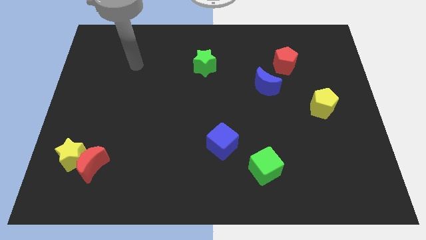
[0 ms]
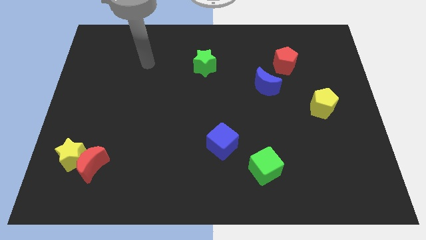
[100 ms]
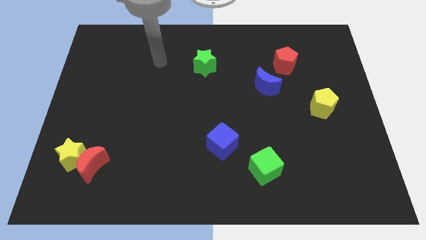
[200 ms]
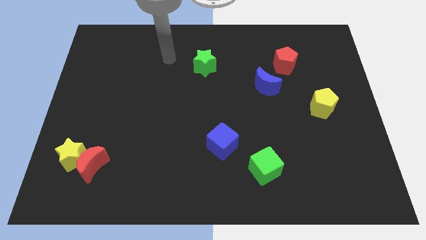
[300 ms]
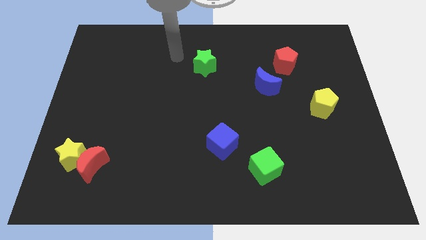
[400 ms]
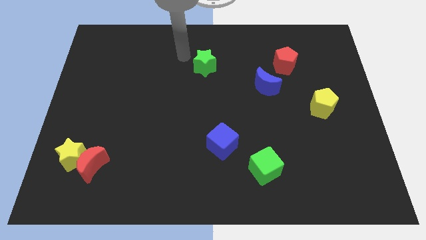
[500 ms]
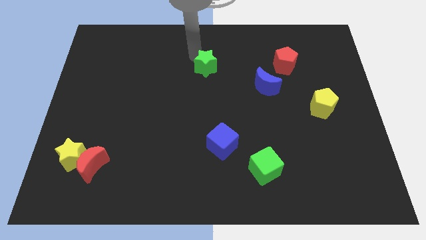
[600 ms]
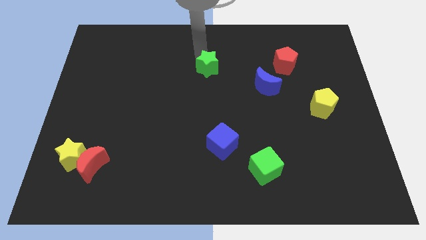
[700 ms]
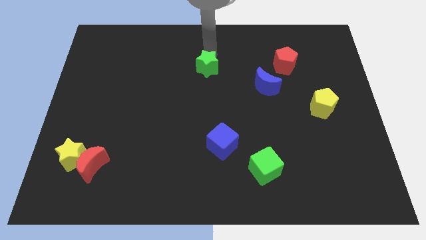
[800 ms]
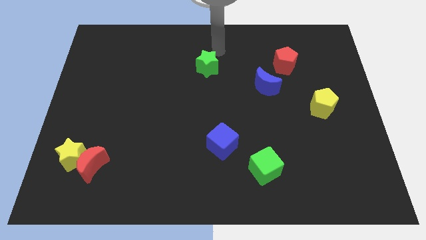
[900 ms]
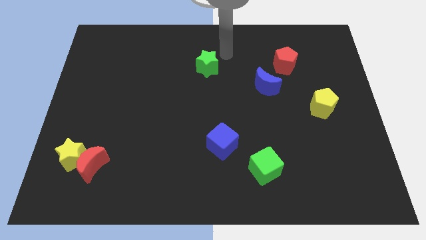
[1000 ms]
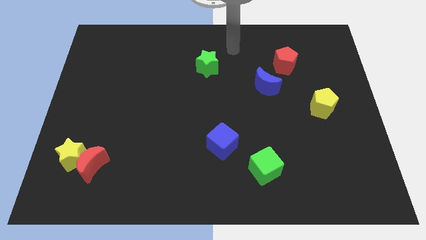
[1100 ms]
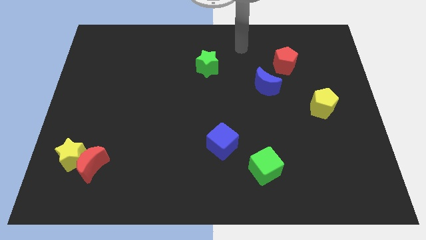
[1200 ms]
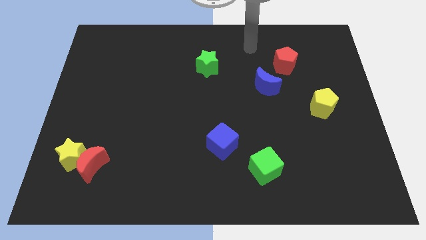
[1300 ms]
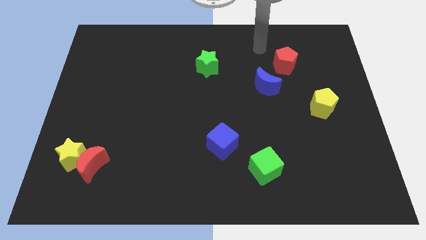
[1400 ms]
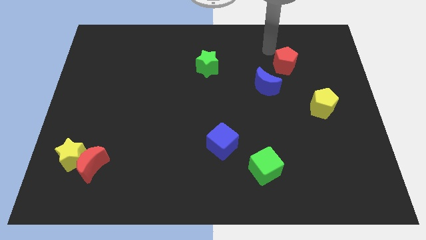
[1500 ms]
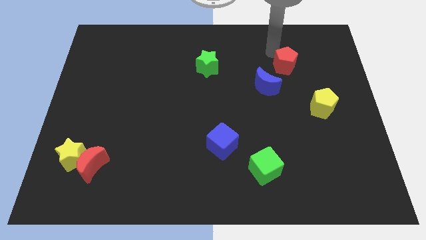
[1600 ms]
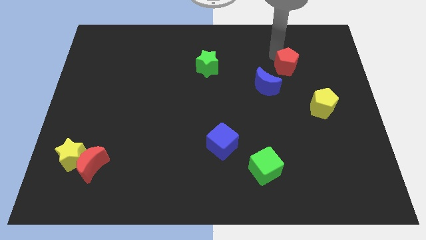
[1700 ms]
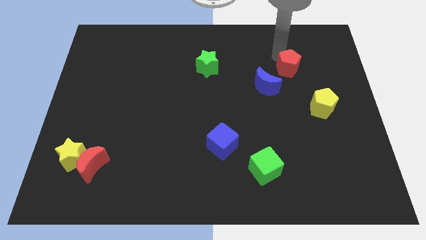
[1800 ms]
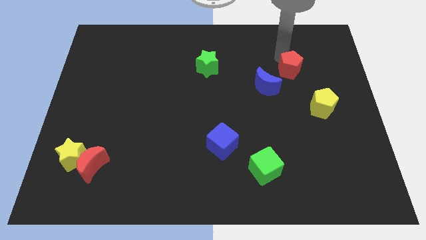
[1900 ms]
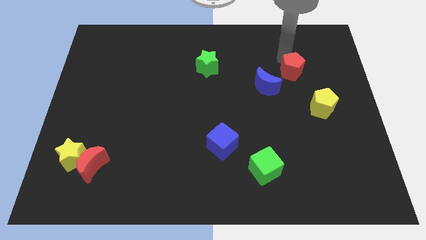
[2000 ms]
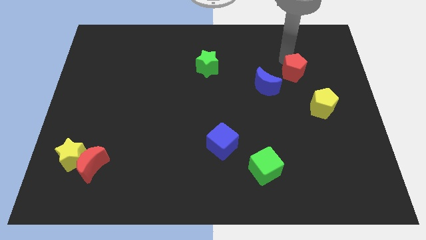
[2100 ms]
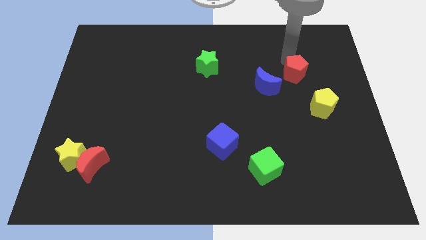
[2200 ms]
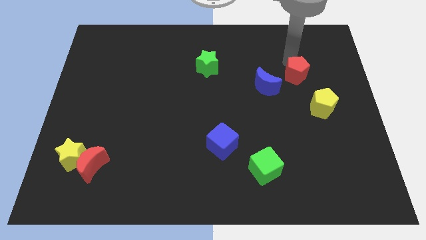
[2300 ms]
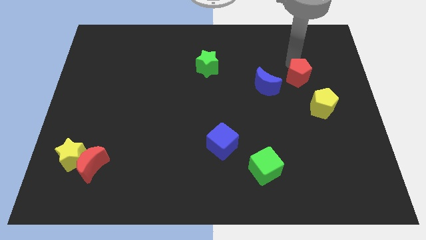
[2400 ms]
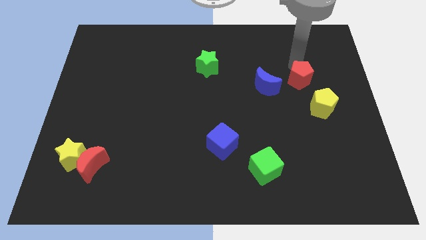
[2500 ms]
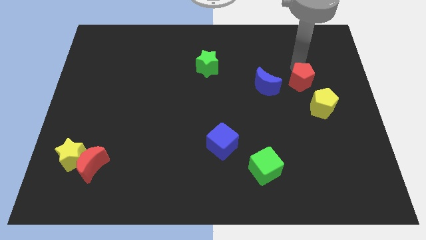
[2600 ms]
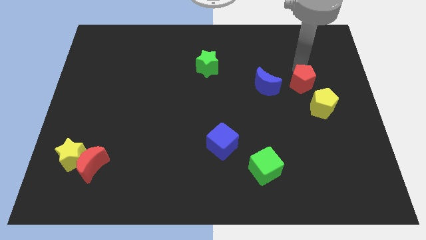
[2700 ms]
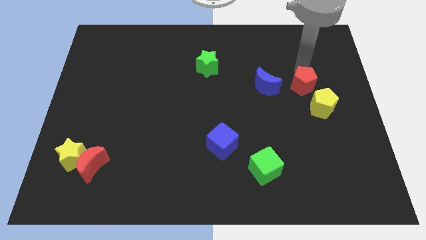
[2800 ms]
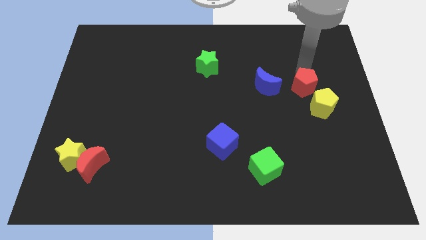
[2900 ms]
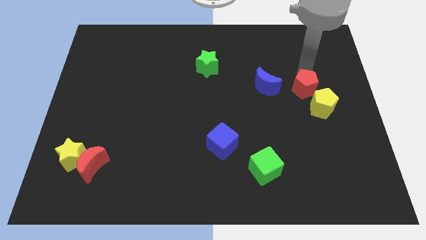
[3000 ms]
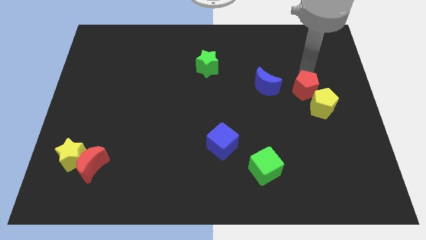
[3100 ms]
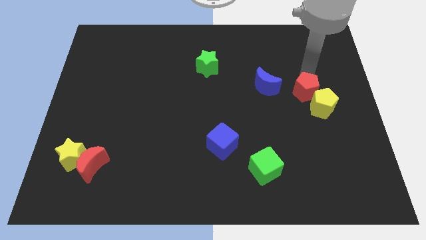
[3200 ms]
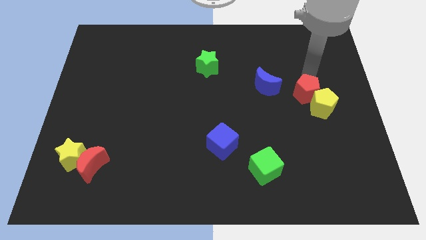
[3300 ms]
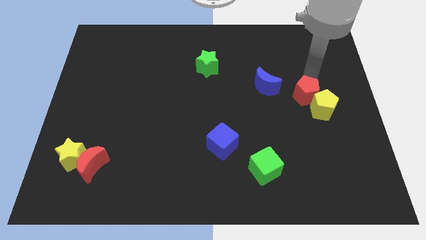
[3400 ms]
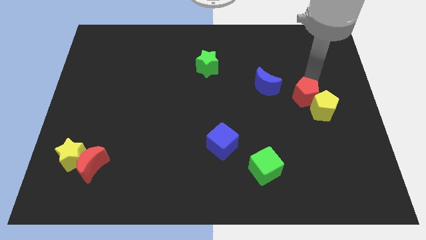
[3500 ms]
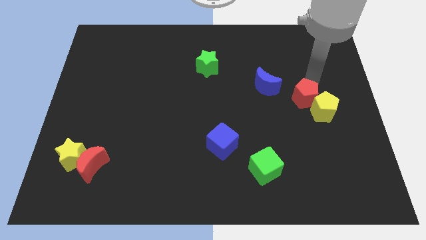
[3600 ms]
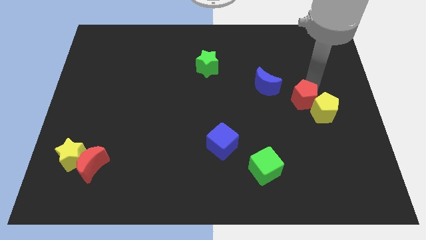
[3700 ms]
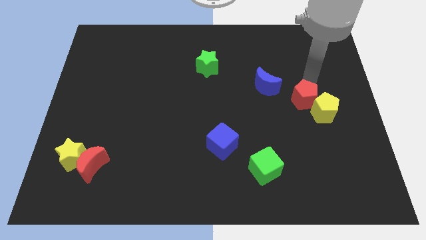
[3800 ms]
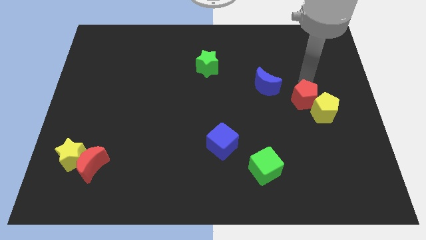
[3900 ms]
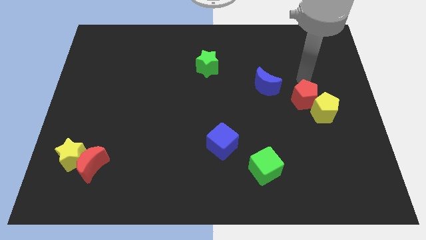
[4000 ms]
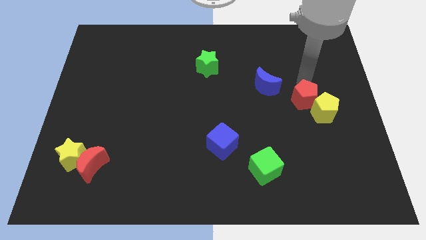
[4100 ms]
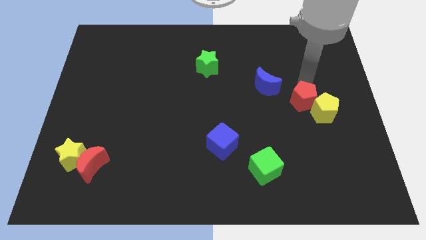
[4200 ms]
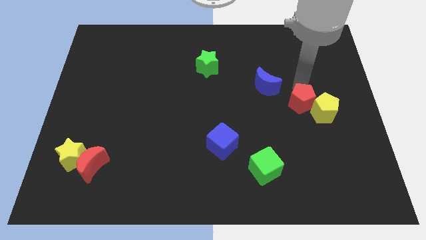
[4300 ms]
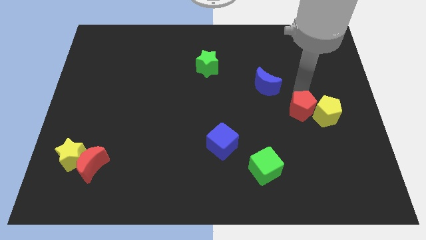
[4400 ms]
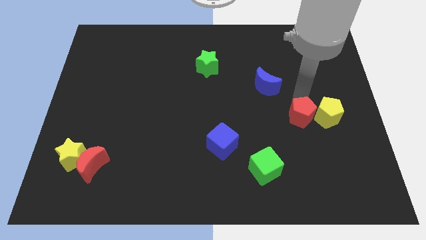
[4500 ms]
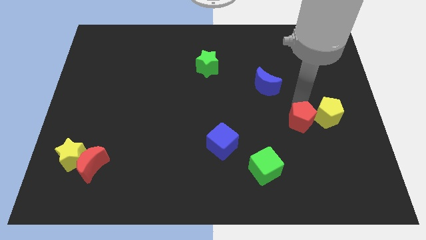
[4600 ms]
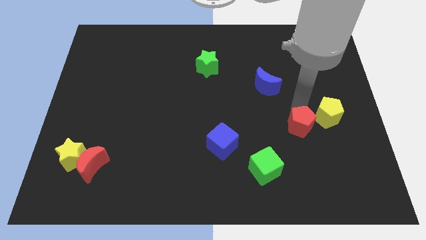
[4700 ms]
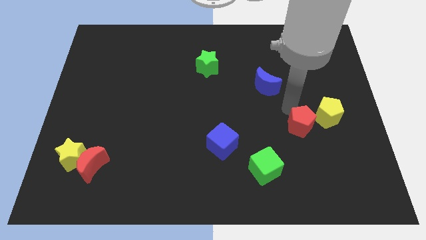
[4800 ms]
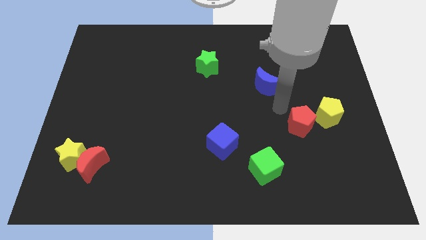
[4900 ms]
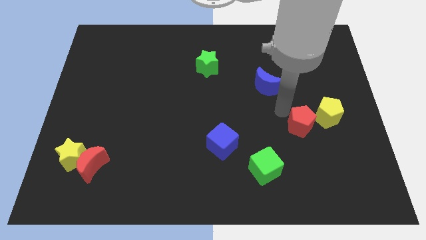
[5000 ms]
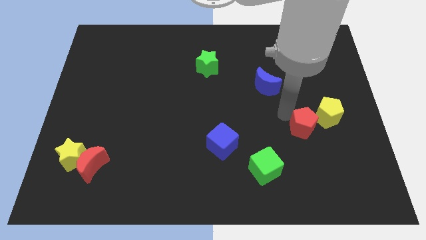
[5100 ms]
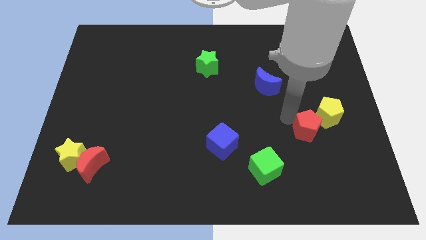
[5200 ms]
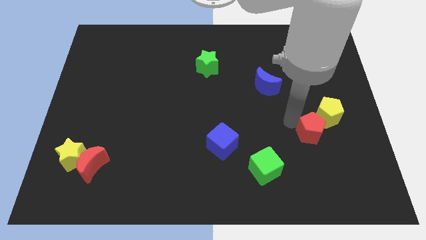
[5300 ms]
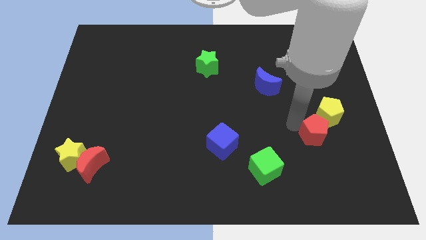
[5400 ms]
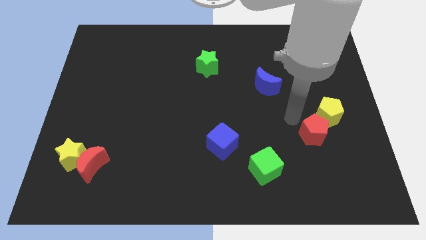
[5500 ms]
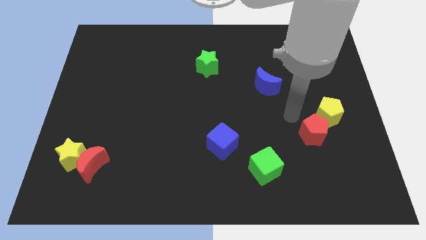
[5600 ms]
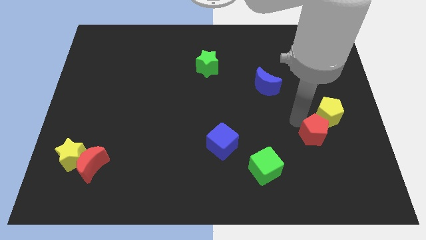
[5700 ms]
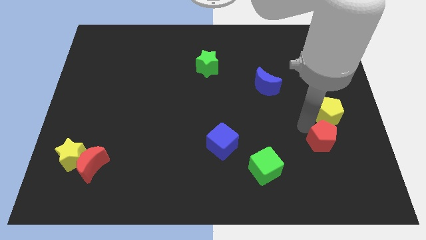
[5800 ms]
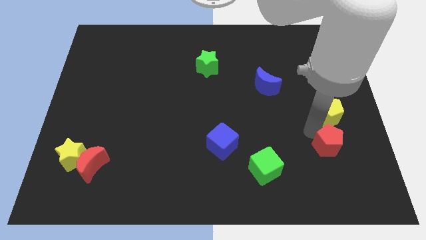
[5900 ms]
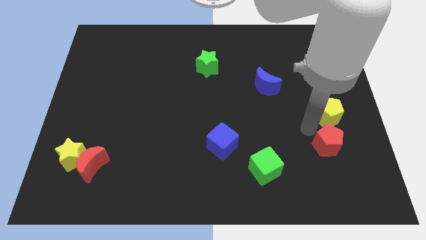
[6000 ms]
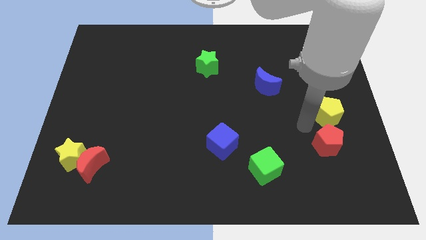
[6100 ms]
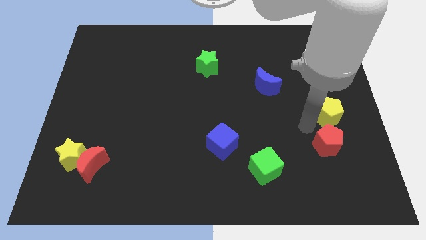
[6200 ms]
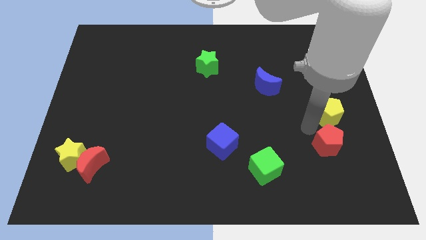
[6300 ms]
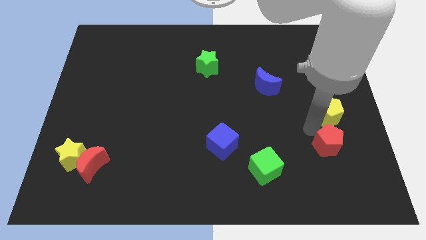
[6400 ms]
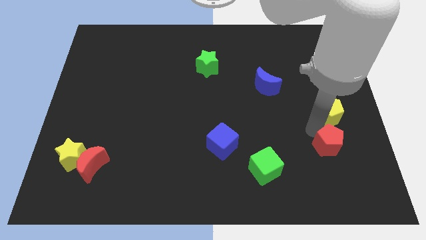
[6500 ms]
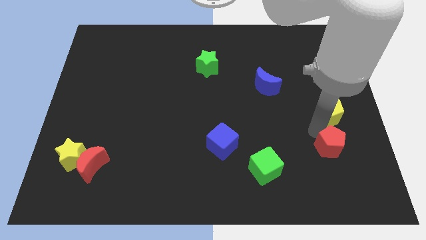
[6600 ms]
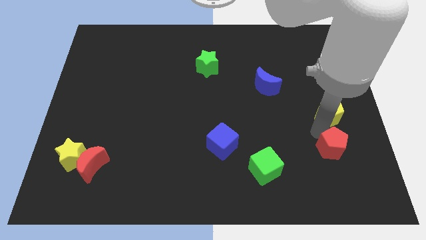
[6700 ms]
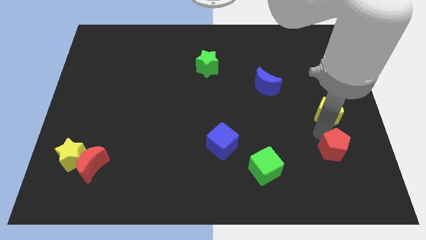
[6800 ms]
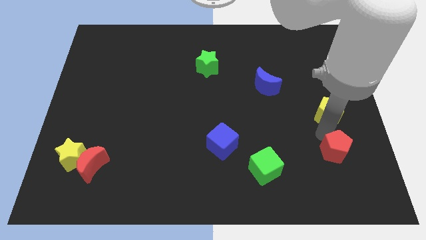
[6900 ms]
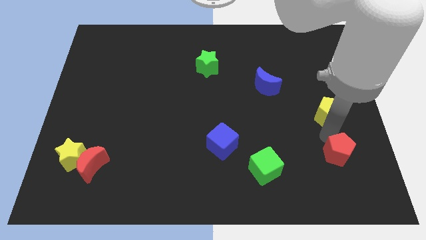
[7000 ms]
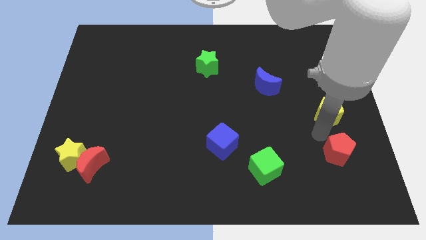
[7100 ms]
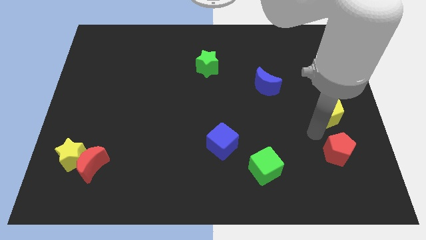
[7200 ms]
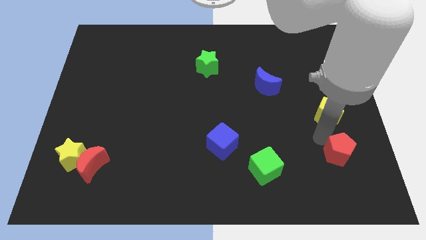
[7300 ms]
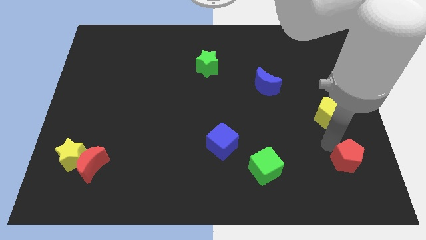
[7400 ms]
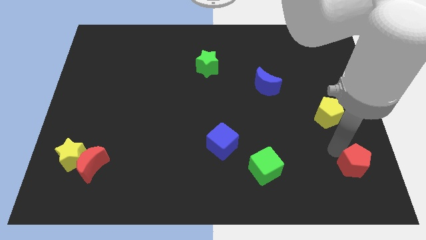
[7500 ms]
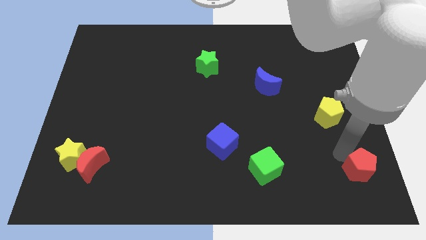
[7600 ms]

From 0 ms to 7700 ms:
slide the red pentagon to the bottom right
